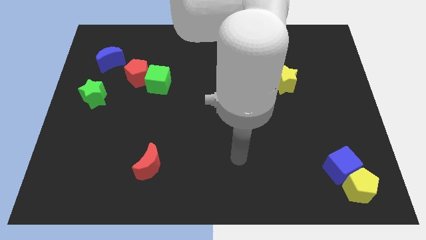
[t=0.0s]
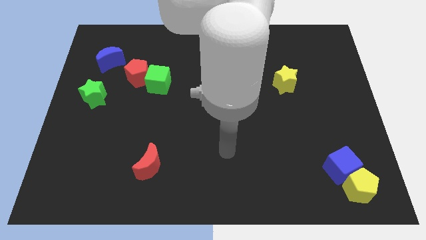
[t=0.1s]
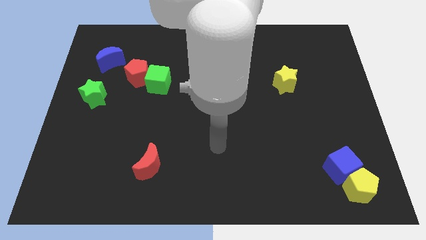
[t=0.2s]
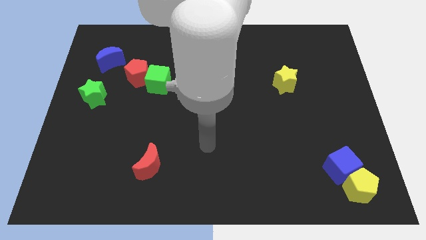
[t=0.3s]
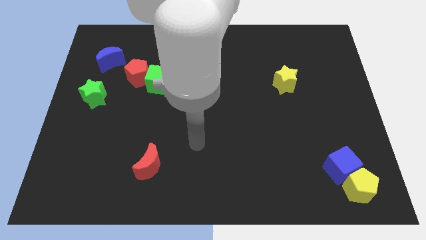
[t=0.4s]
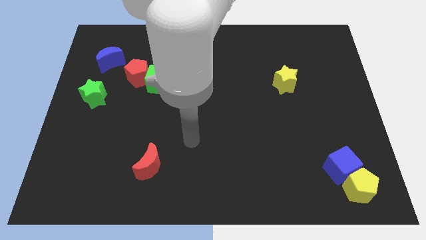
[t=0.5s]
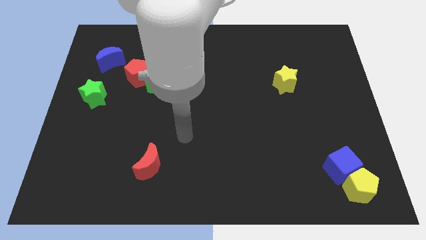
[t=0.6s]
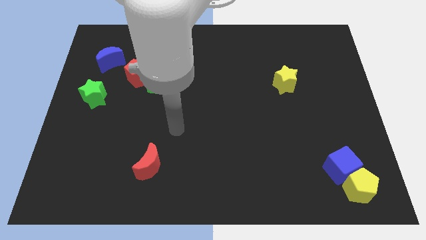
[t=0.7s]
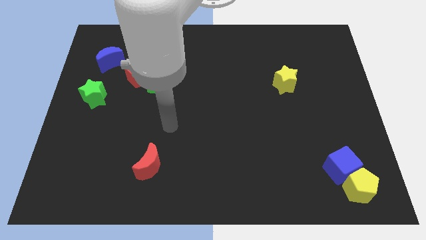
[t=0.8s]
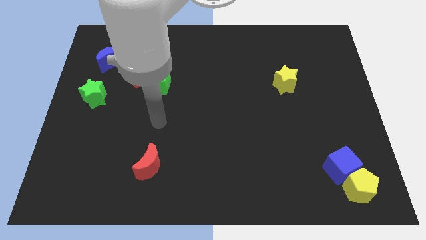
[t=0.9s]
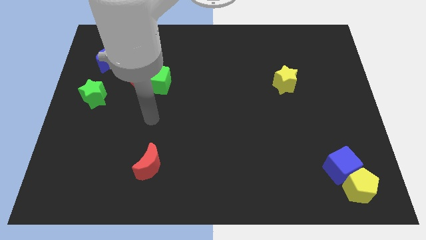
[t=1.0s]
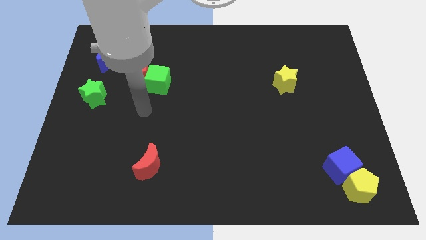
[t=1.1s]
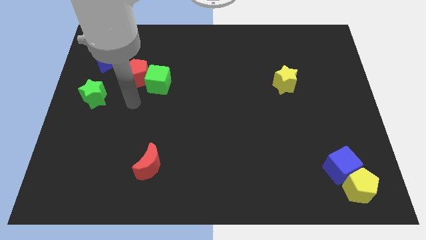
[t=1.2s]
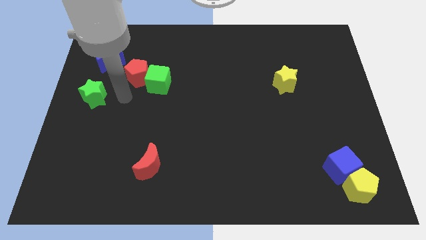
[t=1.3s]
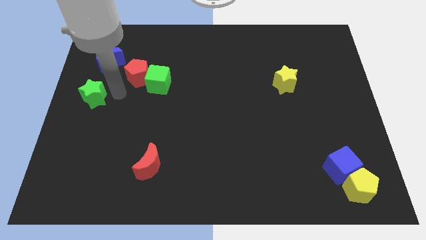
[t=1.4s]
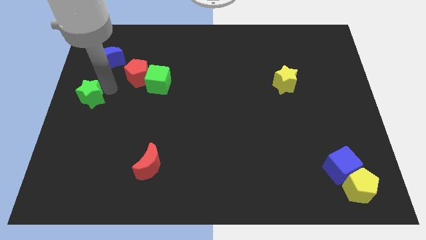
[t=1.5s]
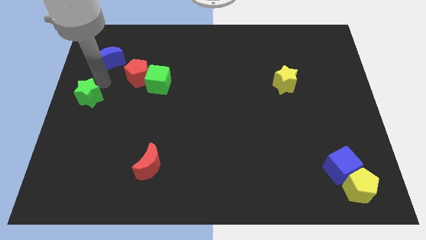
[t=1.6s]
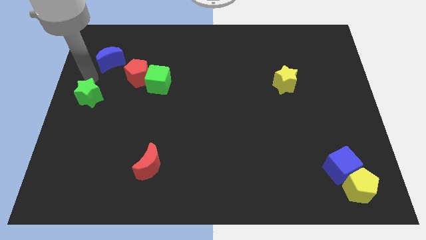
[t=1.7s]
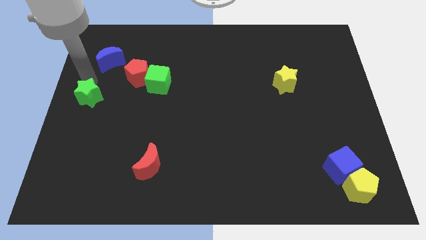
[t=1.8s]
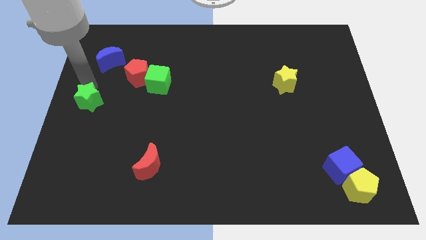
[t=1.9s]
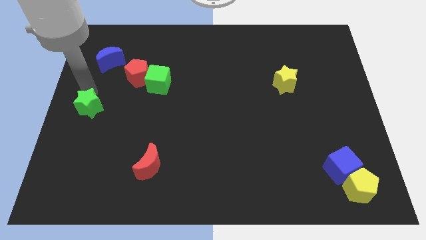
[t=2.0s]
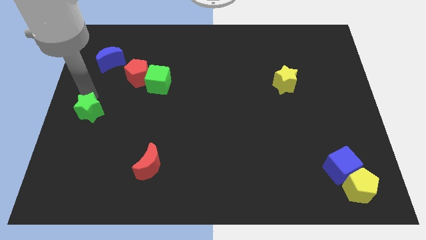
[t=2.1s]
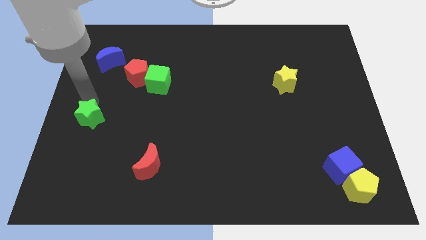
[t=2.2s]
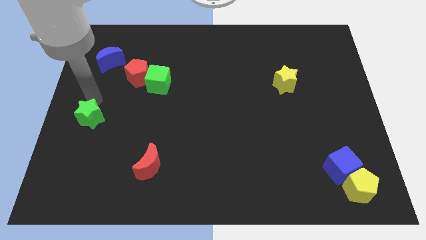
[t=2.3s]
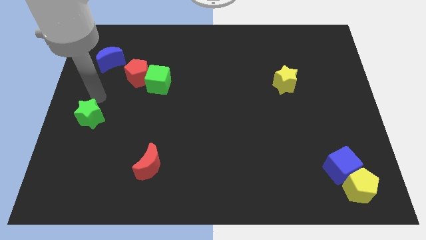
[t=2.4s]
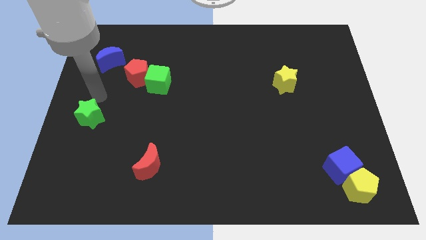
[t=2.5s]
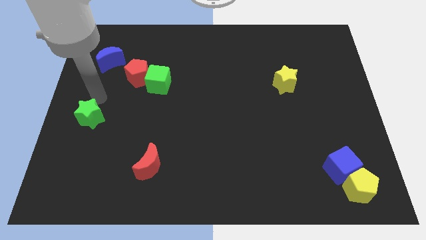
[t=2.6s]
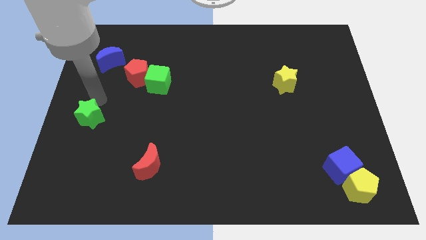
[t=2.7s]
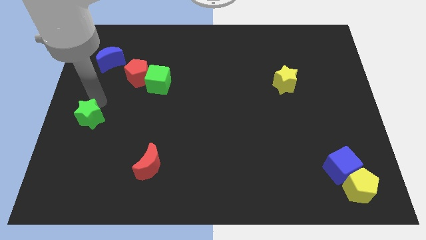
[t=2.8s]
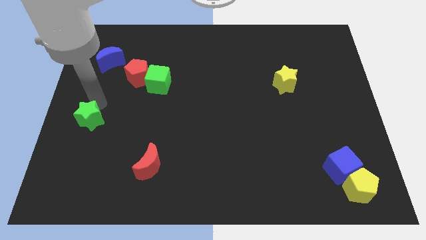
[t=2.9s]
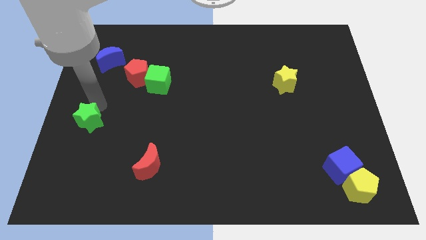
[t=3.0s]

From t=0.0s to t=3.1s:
push the green star downwards a little bit

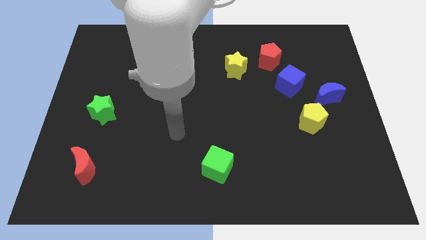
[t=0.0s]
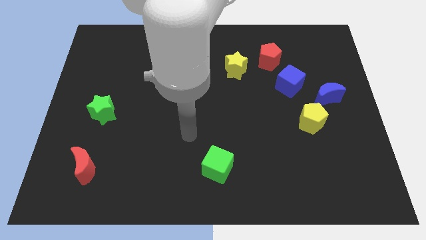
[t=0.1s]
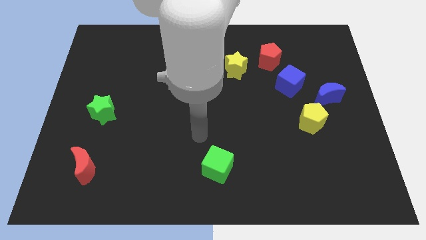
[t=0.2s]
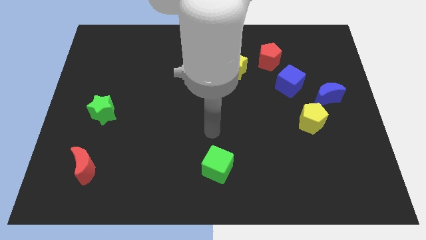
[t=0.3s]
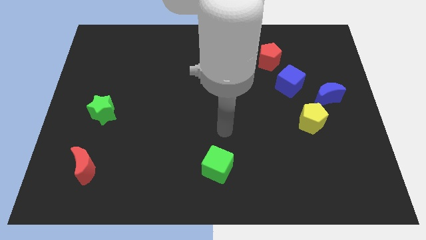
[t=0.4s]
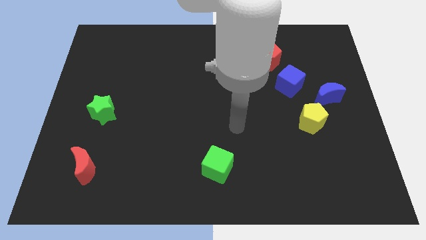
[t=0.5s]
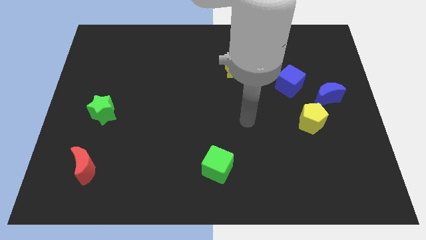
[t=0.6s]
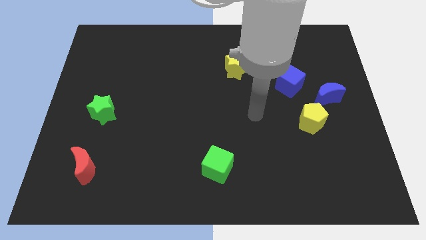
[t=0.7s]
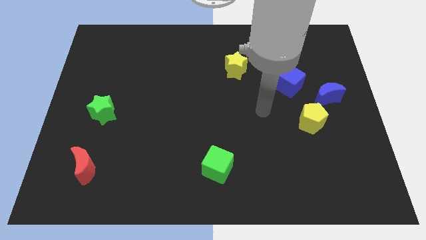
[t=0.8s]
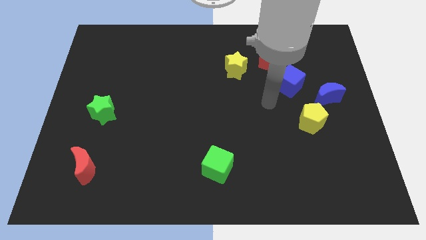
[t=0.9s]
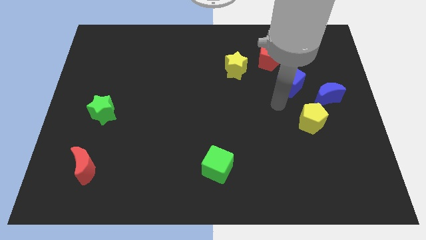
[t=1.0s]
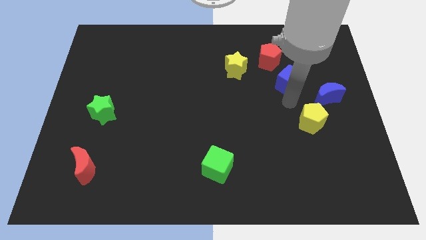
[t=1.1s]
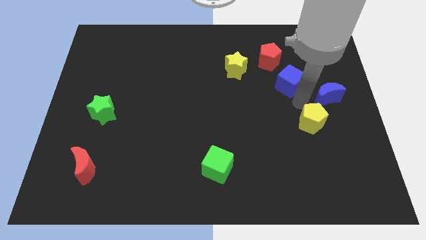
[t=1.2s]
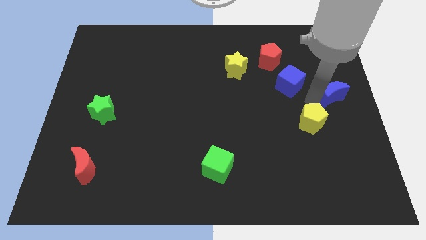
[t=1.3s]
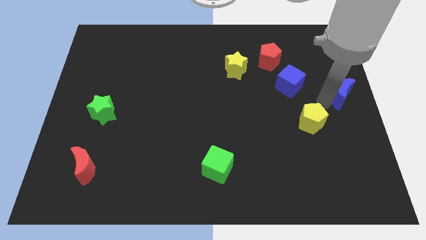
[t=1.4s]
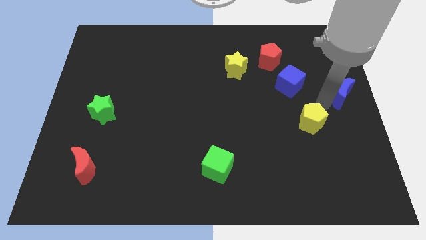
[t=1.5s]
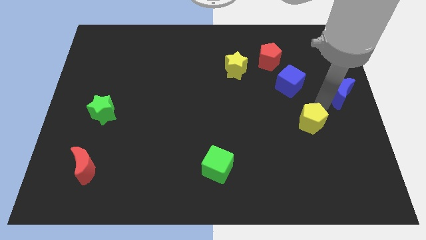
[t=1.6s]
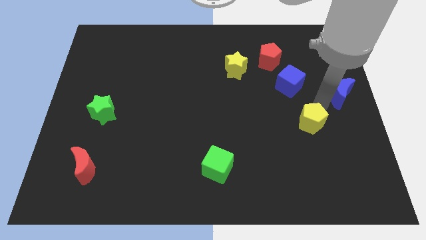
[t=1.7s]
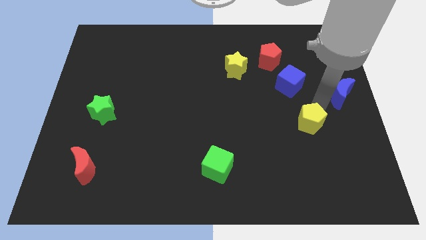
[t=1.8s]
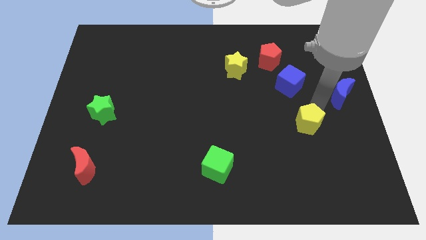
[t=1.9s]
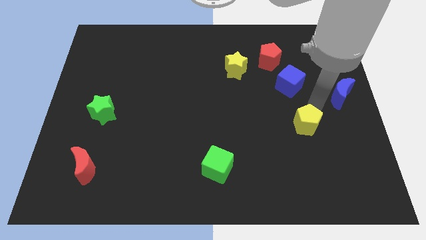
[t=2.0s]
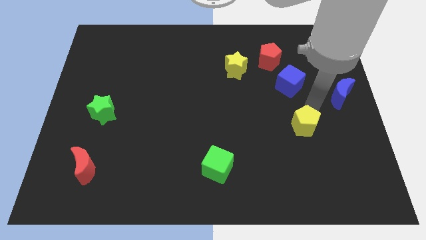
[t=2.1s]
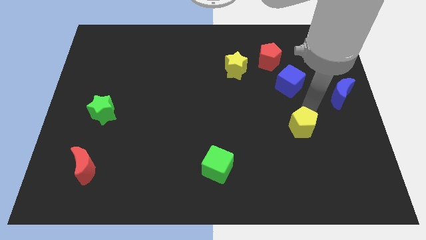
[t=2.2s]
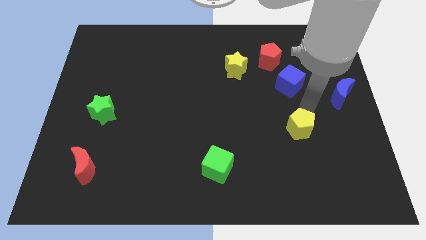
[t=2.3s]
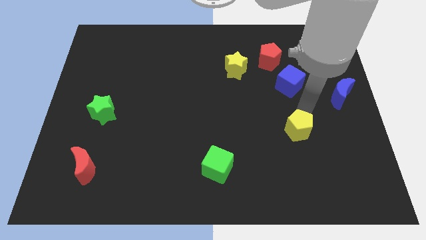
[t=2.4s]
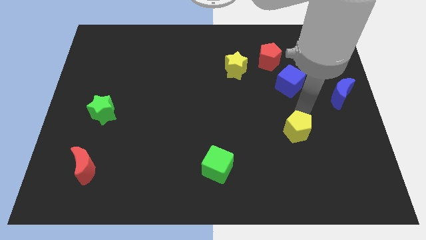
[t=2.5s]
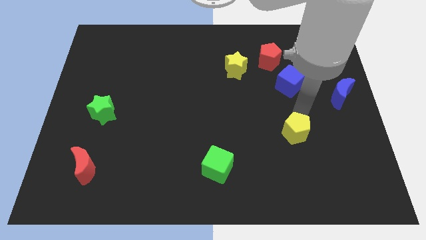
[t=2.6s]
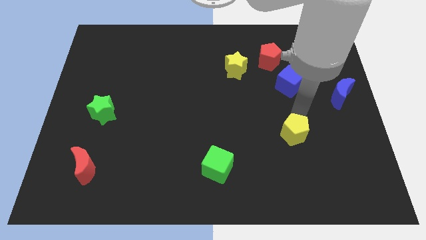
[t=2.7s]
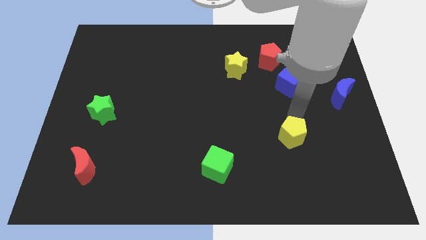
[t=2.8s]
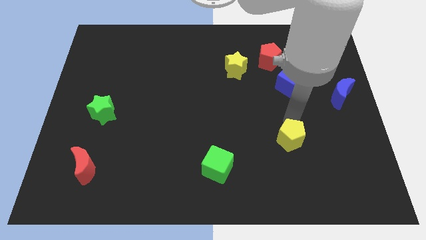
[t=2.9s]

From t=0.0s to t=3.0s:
push the yellow pentagon downwards and to the left diagonally a little bit

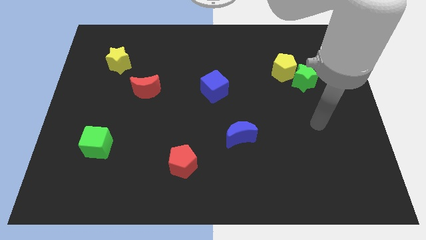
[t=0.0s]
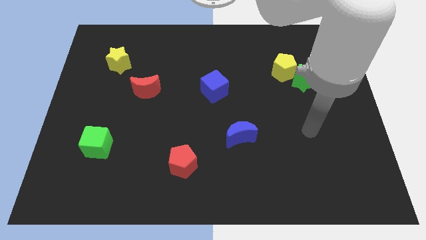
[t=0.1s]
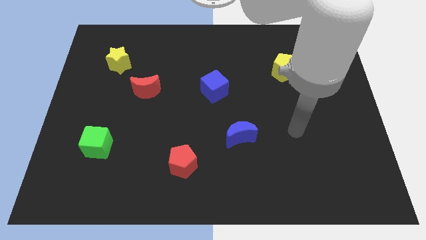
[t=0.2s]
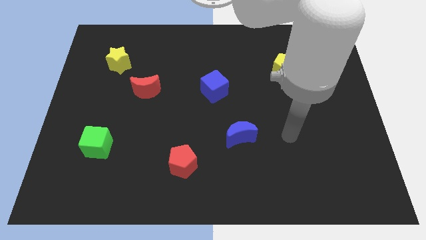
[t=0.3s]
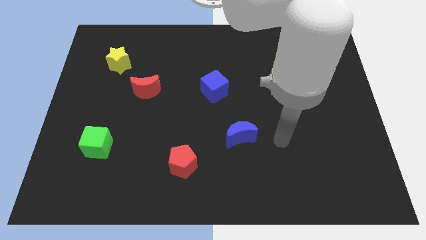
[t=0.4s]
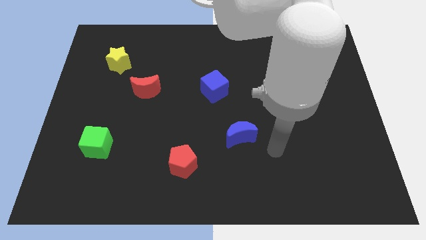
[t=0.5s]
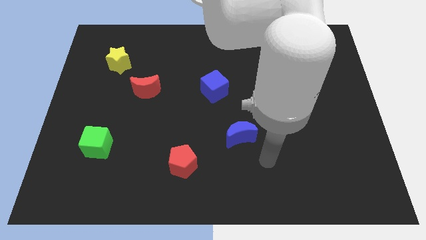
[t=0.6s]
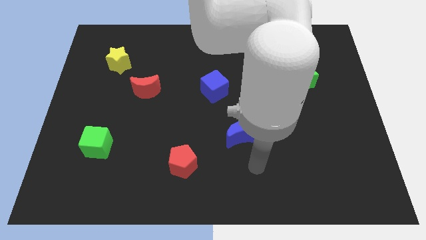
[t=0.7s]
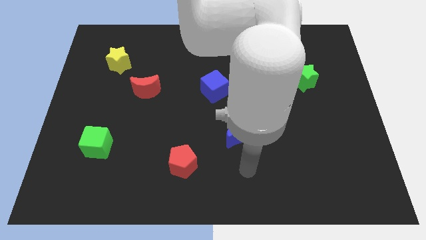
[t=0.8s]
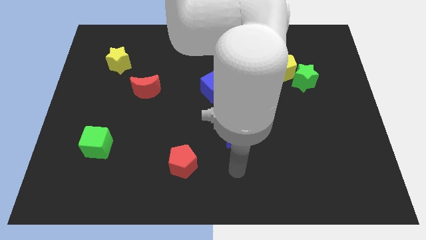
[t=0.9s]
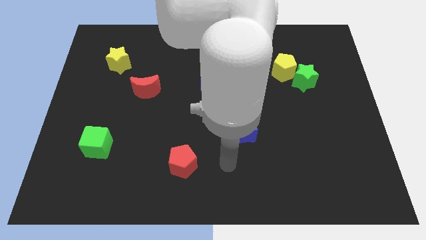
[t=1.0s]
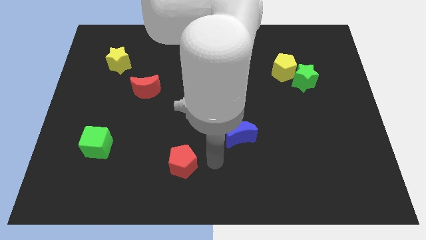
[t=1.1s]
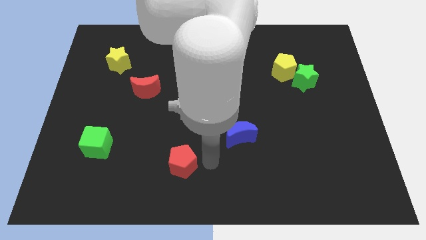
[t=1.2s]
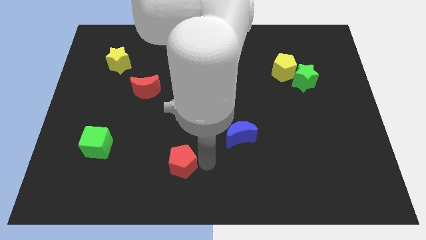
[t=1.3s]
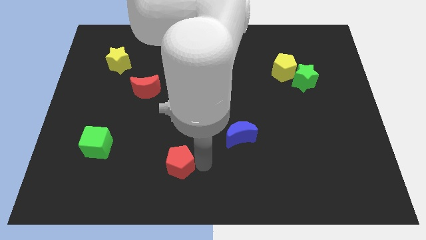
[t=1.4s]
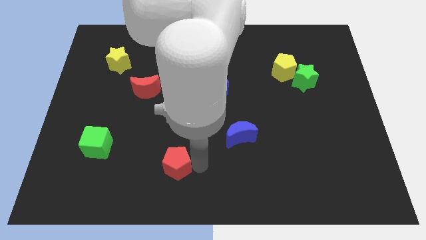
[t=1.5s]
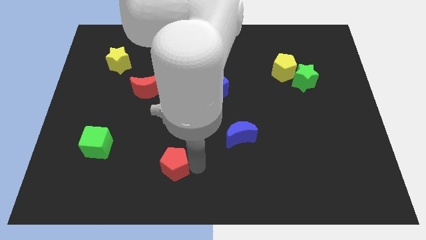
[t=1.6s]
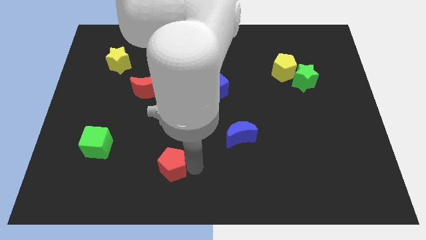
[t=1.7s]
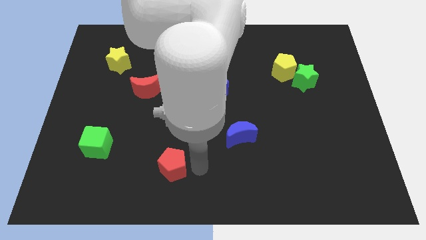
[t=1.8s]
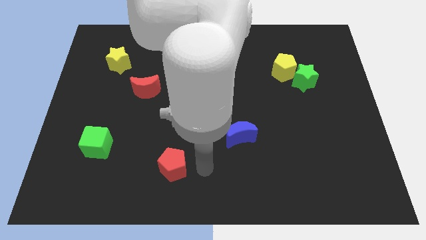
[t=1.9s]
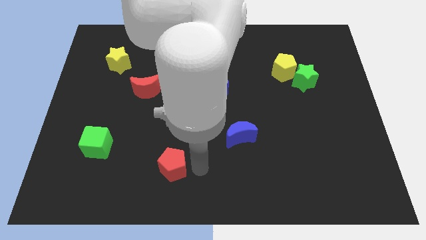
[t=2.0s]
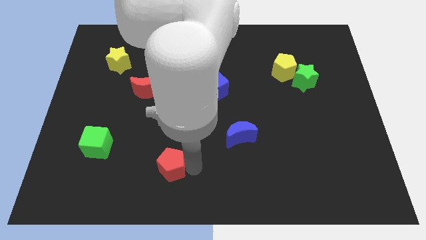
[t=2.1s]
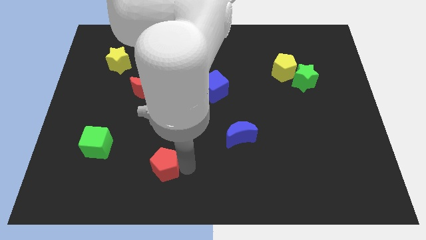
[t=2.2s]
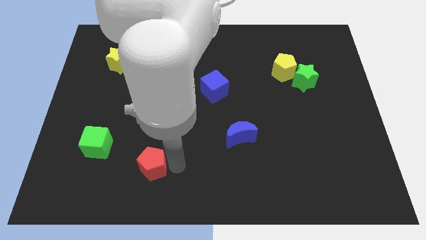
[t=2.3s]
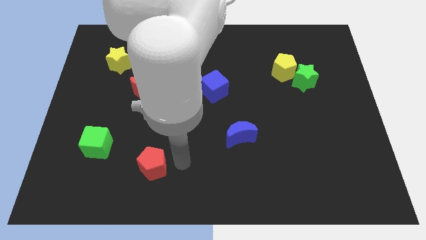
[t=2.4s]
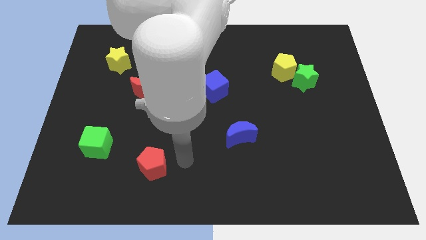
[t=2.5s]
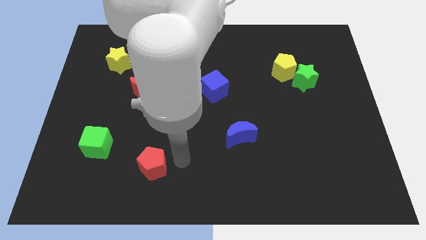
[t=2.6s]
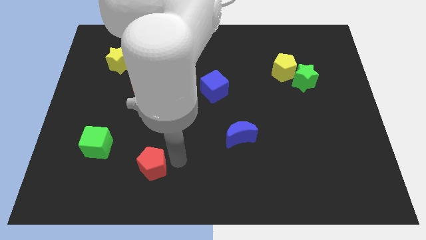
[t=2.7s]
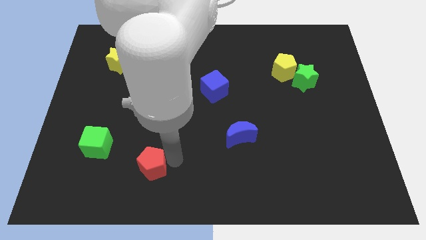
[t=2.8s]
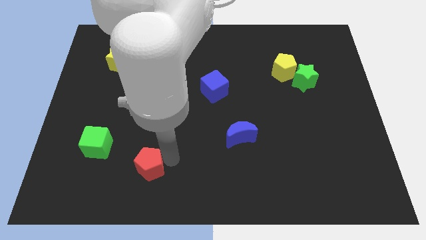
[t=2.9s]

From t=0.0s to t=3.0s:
slide the red pentagon slightly left
